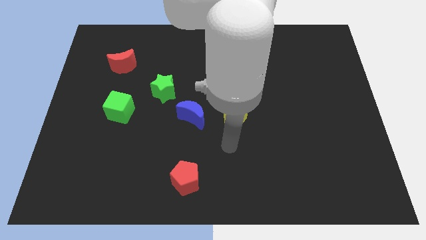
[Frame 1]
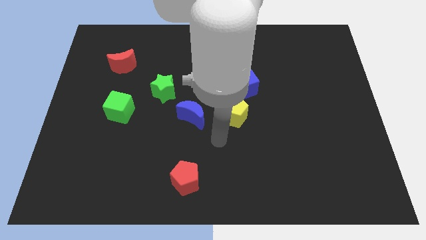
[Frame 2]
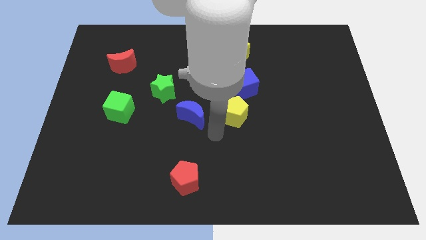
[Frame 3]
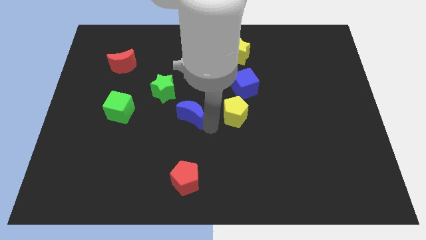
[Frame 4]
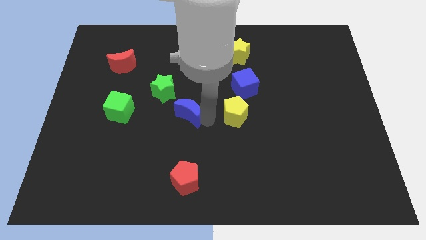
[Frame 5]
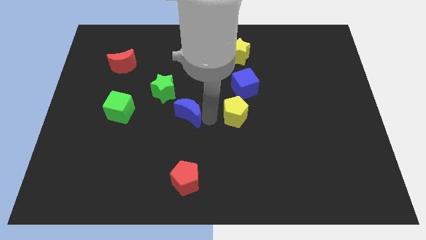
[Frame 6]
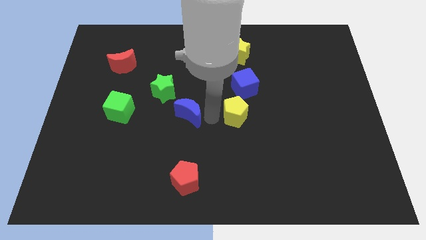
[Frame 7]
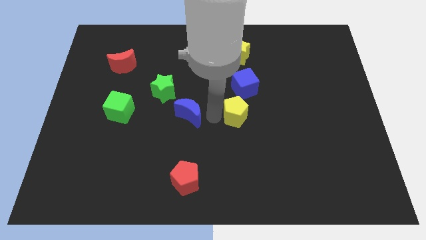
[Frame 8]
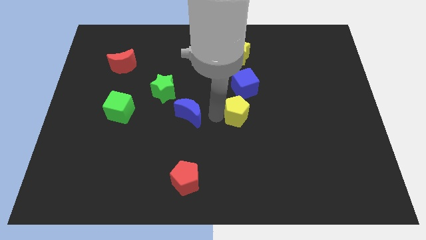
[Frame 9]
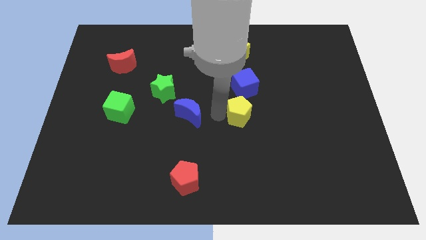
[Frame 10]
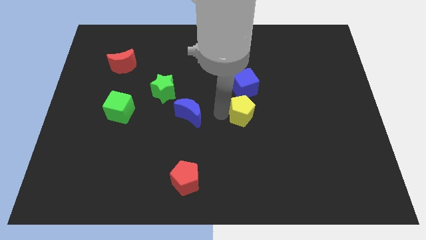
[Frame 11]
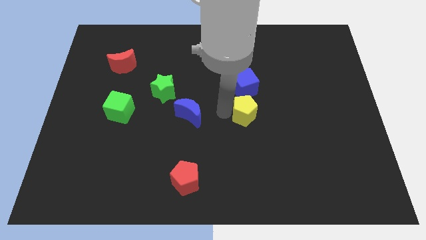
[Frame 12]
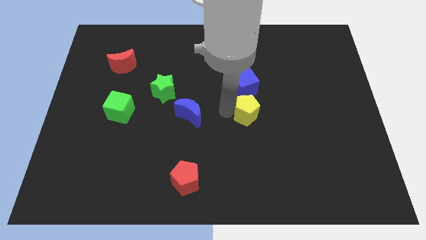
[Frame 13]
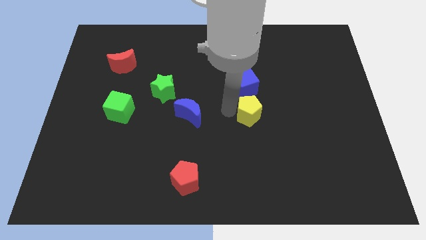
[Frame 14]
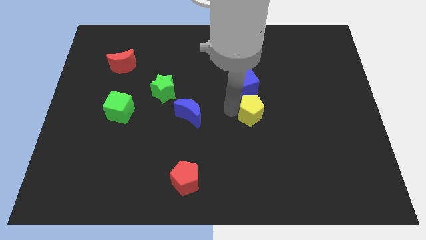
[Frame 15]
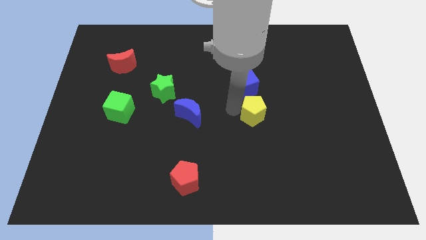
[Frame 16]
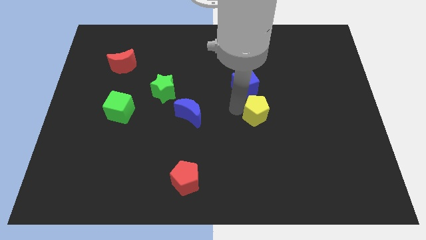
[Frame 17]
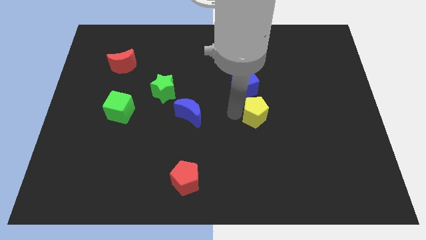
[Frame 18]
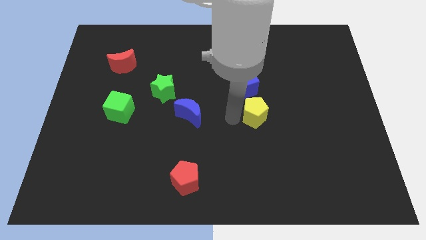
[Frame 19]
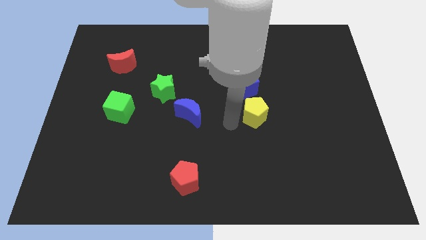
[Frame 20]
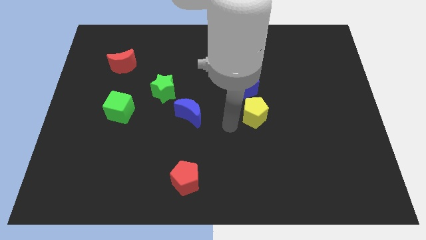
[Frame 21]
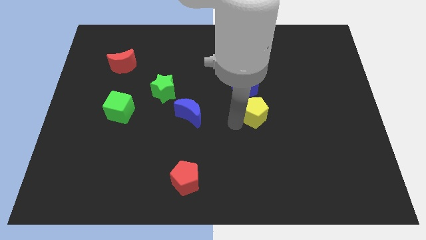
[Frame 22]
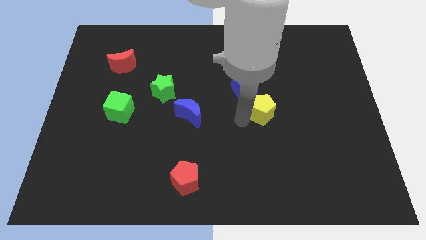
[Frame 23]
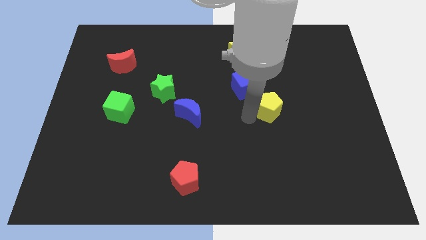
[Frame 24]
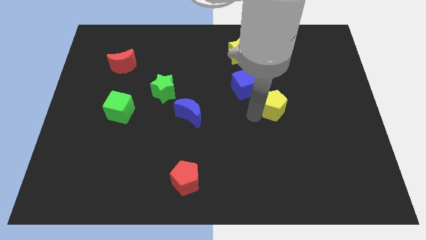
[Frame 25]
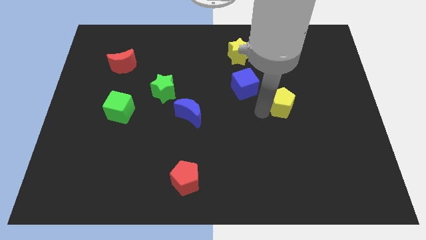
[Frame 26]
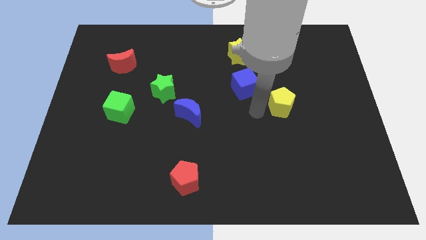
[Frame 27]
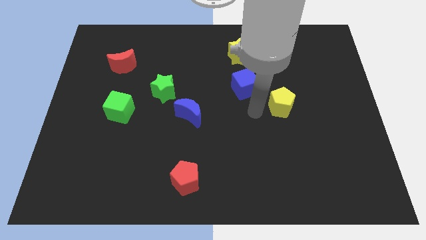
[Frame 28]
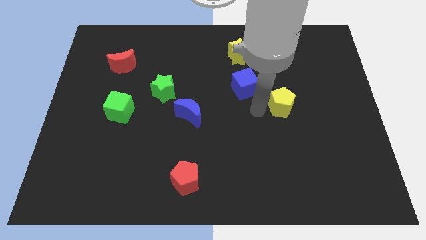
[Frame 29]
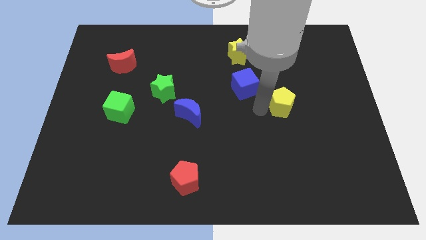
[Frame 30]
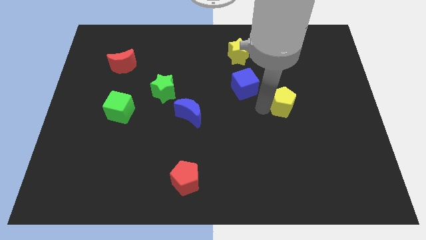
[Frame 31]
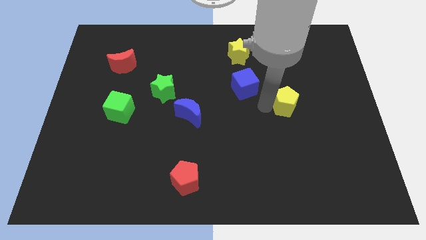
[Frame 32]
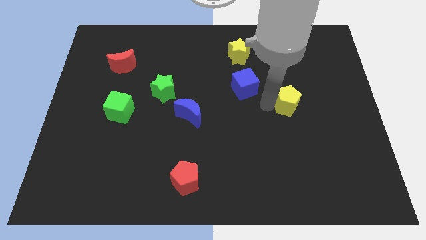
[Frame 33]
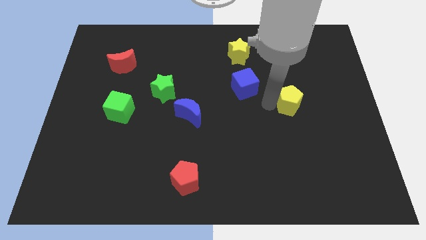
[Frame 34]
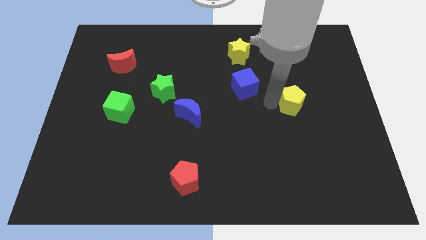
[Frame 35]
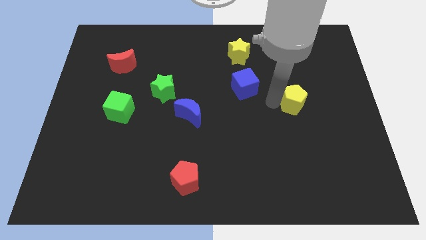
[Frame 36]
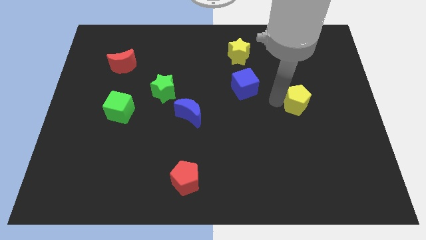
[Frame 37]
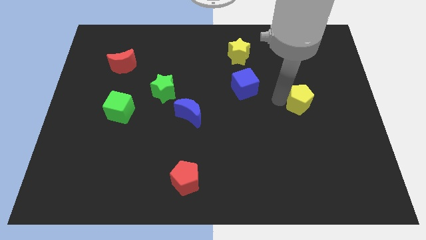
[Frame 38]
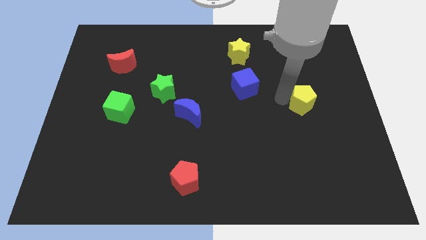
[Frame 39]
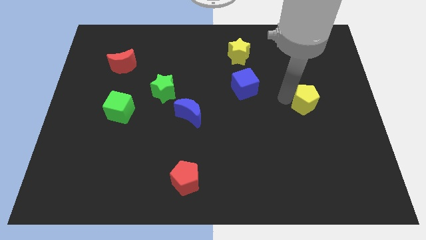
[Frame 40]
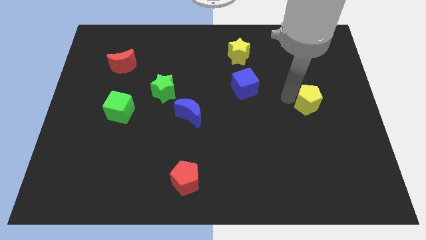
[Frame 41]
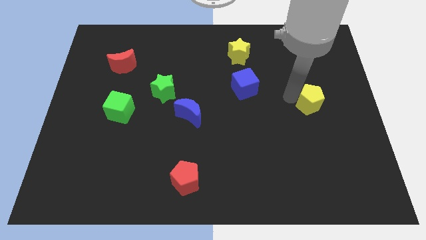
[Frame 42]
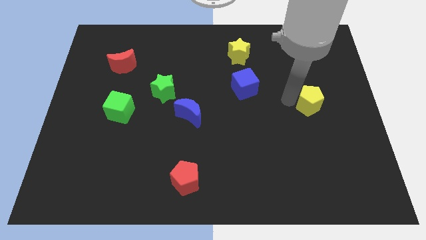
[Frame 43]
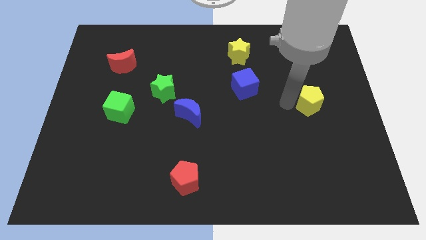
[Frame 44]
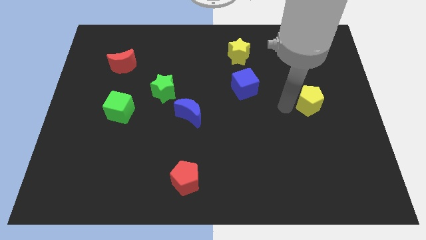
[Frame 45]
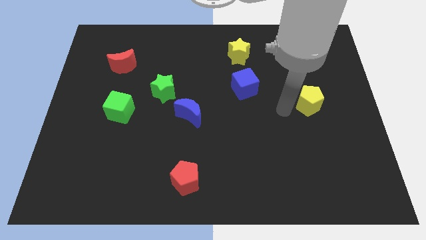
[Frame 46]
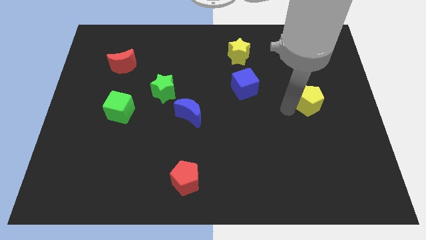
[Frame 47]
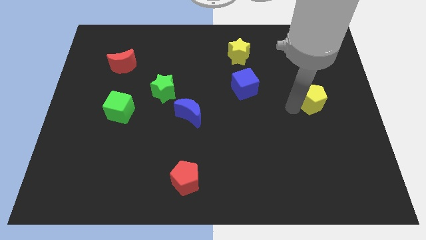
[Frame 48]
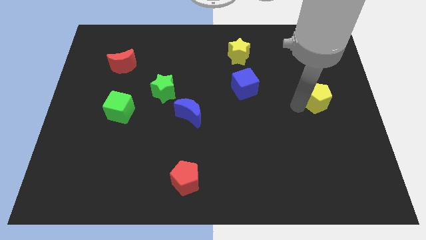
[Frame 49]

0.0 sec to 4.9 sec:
slide the yellow pentagon to the right side

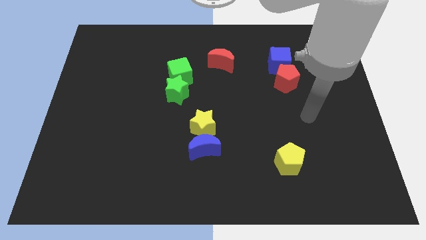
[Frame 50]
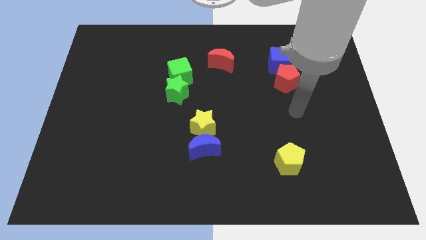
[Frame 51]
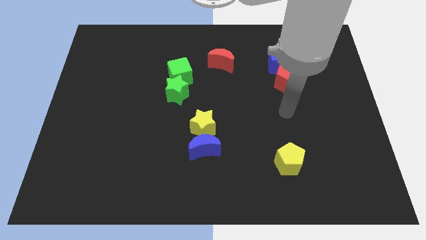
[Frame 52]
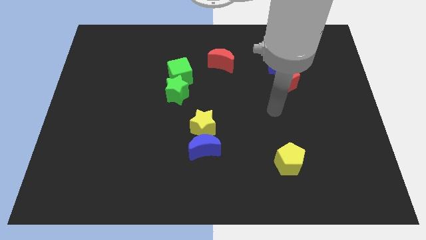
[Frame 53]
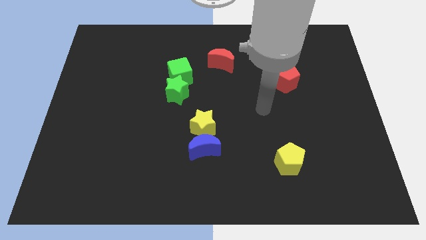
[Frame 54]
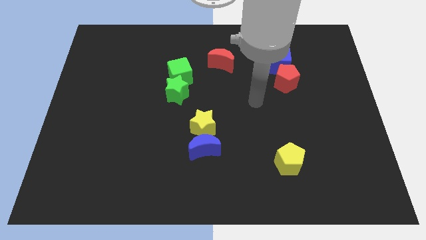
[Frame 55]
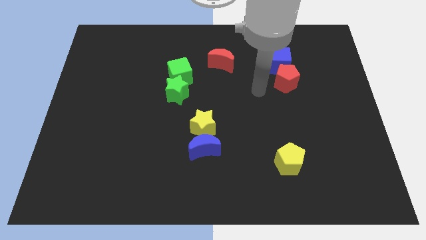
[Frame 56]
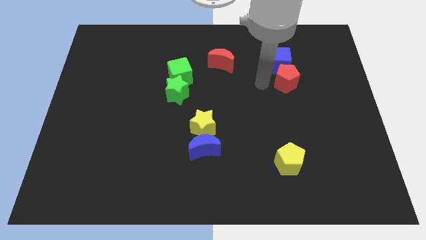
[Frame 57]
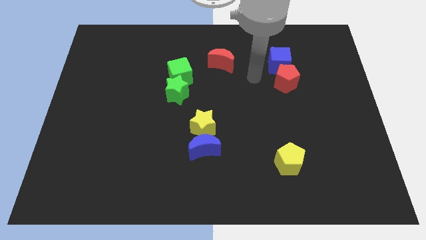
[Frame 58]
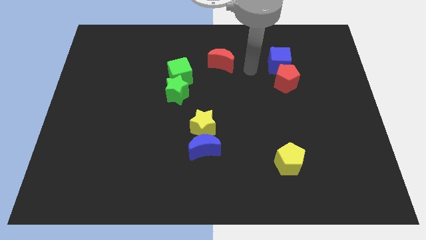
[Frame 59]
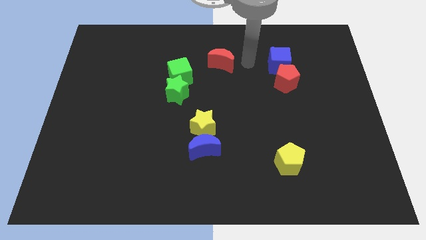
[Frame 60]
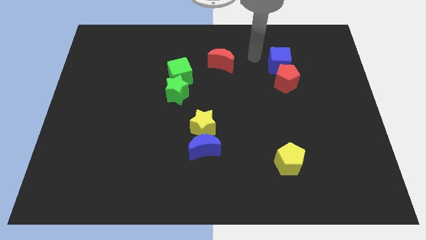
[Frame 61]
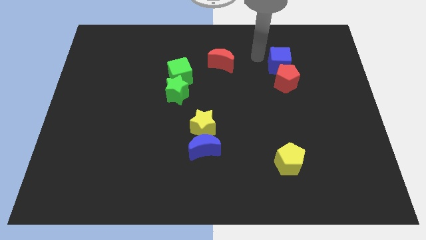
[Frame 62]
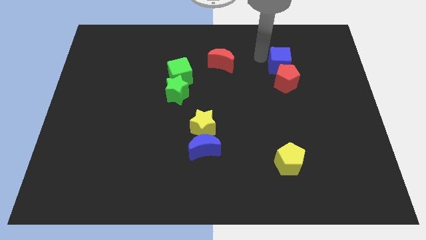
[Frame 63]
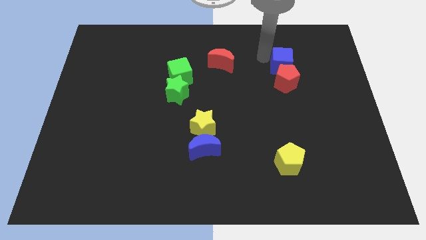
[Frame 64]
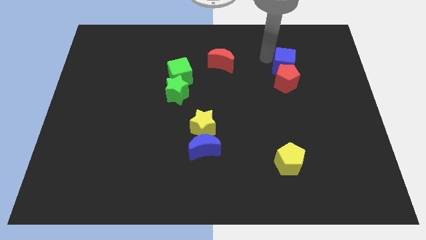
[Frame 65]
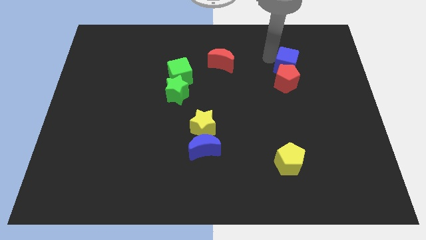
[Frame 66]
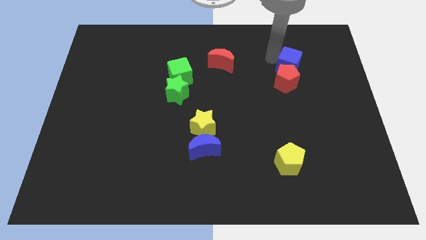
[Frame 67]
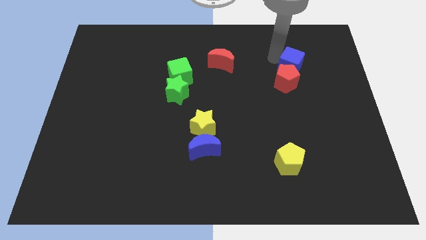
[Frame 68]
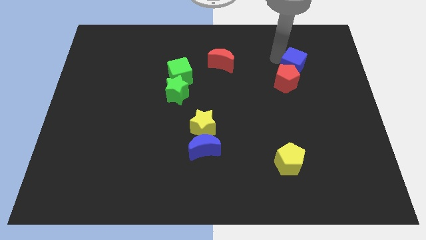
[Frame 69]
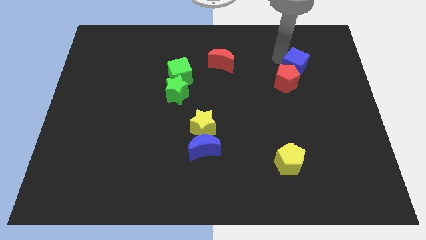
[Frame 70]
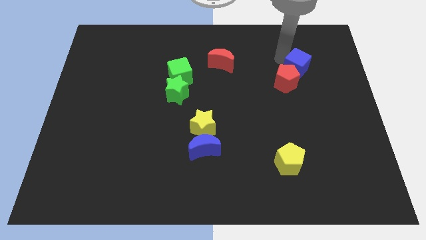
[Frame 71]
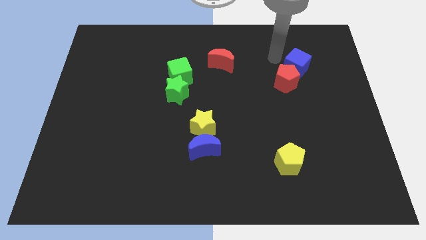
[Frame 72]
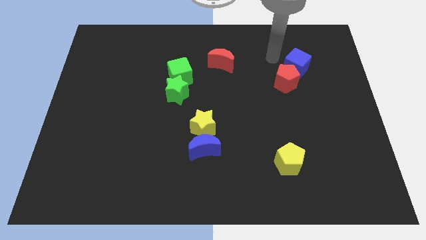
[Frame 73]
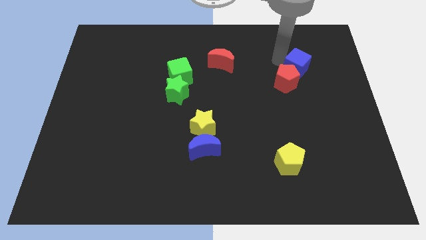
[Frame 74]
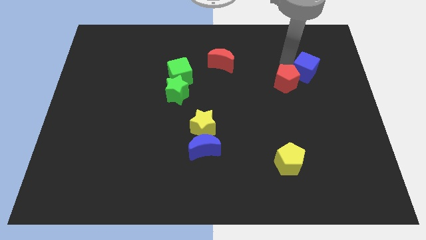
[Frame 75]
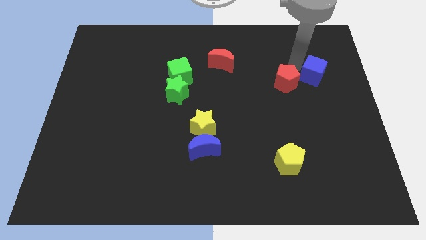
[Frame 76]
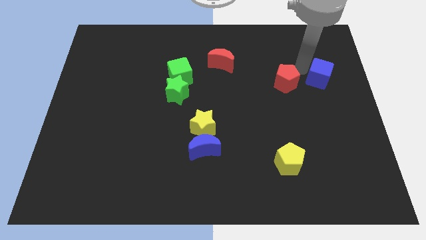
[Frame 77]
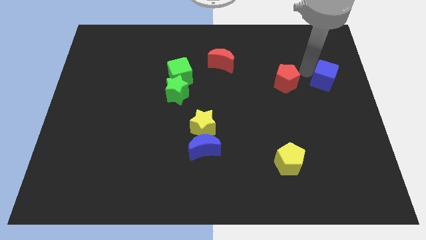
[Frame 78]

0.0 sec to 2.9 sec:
put the blue cube to the right side
